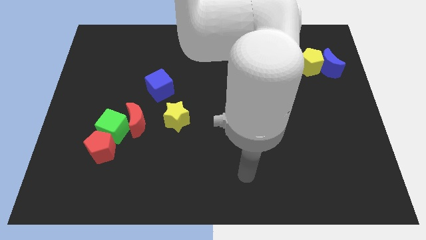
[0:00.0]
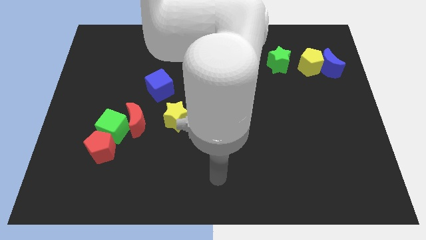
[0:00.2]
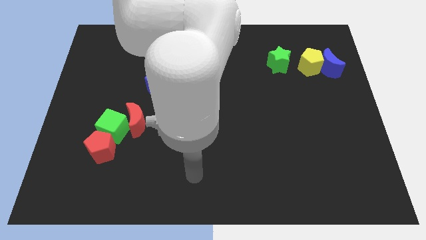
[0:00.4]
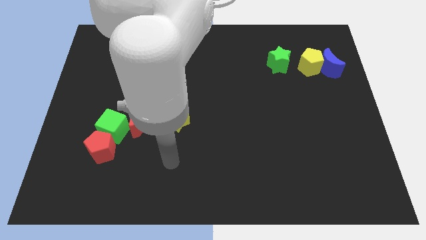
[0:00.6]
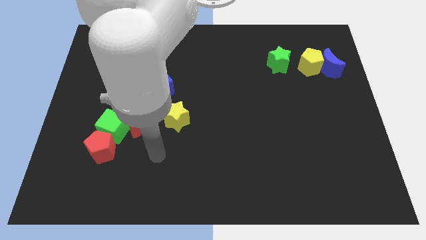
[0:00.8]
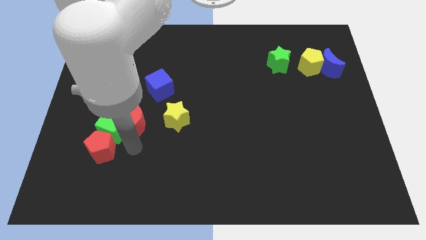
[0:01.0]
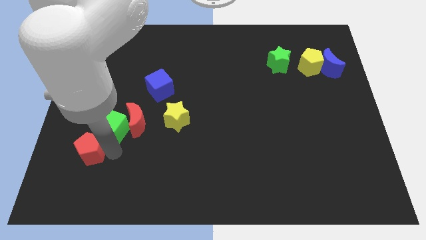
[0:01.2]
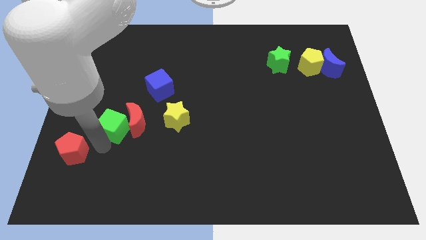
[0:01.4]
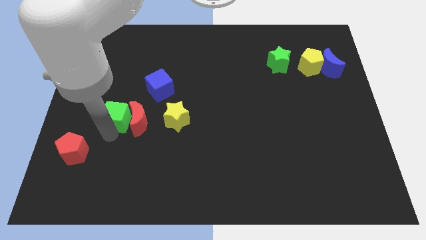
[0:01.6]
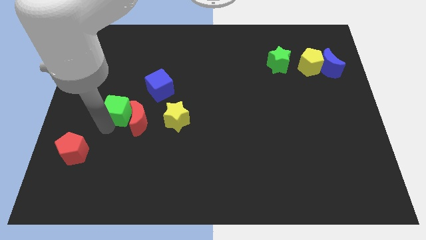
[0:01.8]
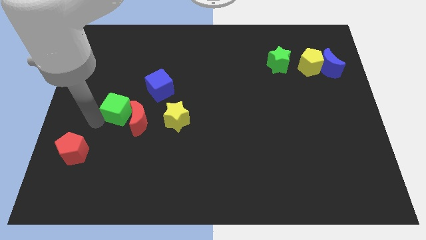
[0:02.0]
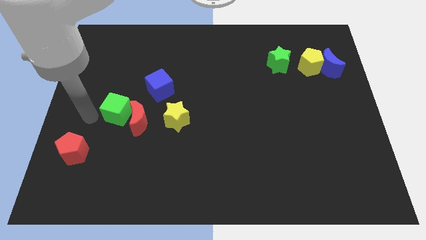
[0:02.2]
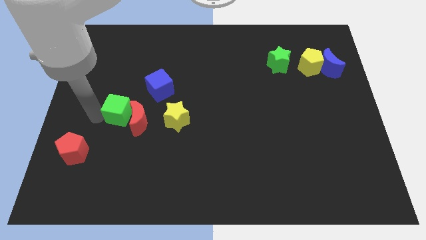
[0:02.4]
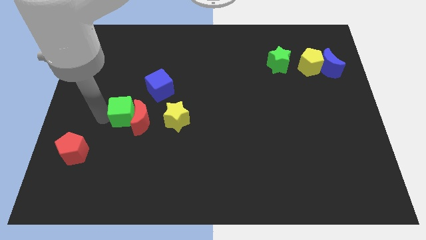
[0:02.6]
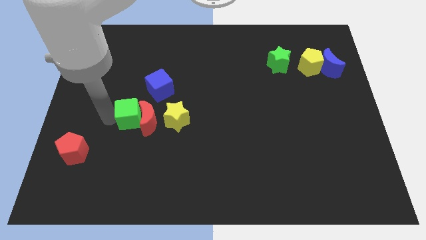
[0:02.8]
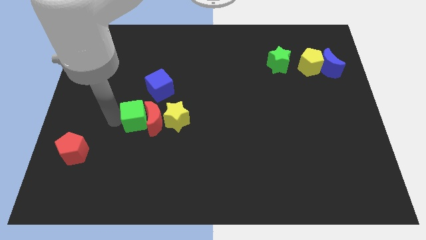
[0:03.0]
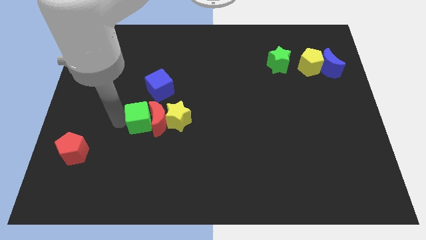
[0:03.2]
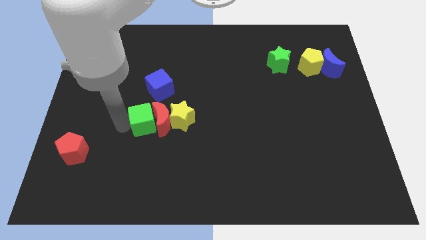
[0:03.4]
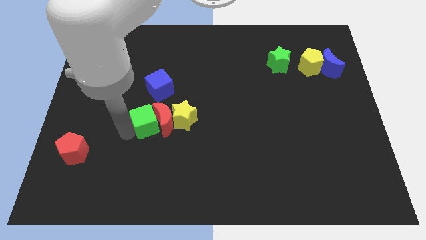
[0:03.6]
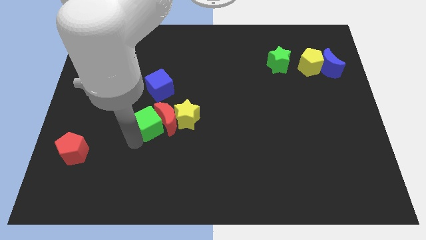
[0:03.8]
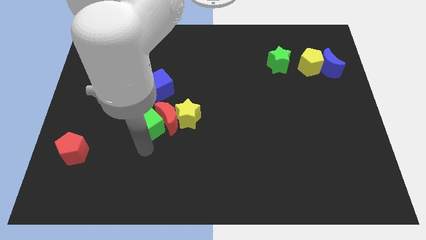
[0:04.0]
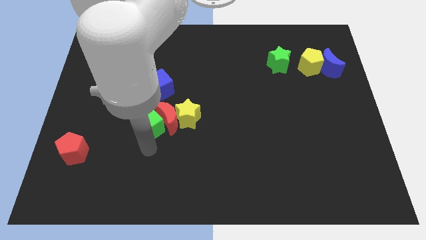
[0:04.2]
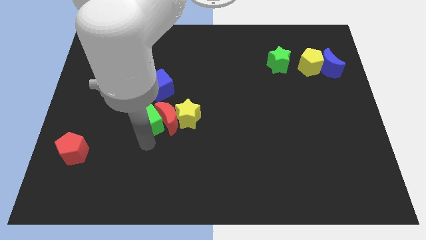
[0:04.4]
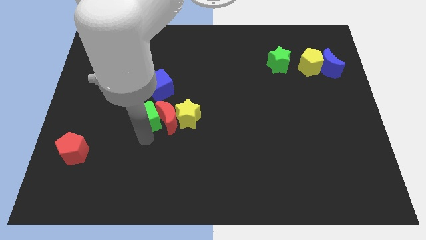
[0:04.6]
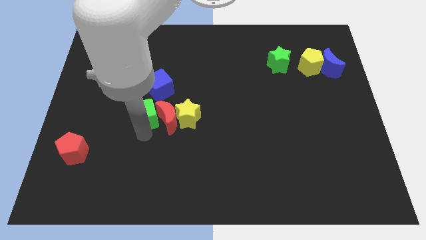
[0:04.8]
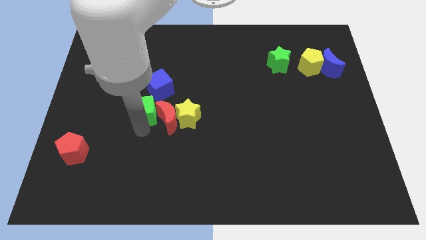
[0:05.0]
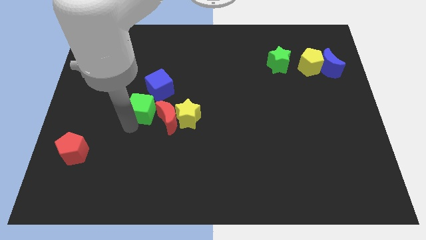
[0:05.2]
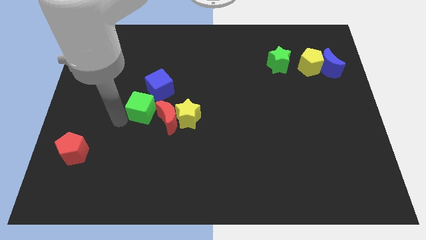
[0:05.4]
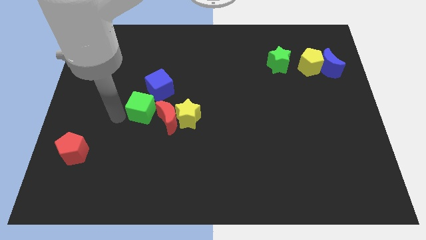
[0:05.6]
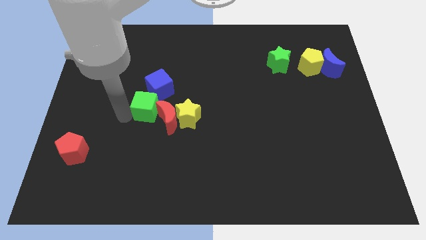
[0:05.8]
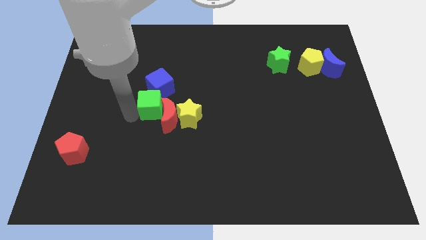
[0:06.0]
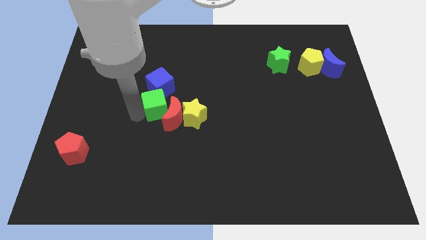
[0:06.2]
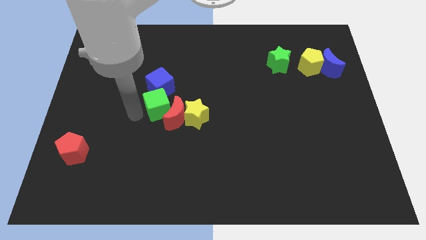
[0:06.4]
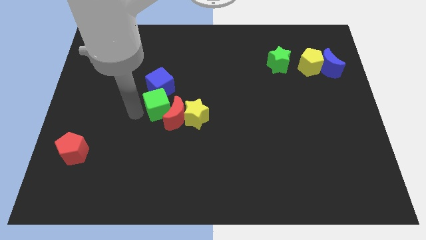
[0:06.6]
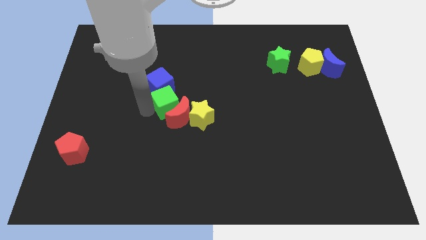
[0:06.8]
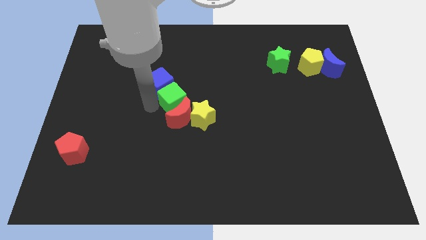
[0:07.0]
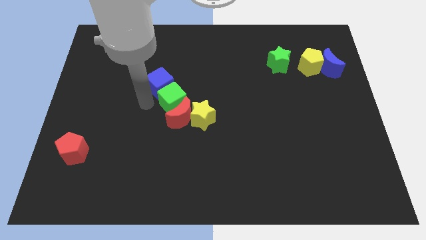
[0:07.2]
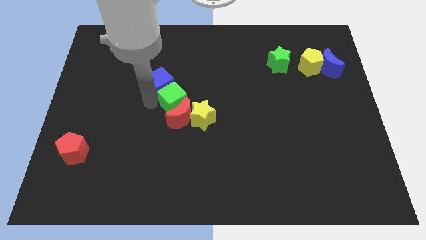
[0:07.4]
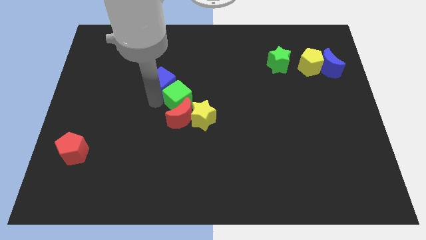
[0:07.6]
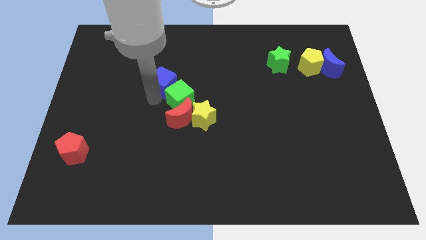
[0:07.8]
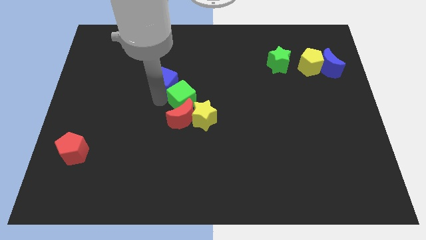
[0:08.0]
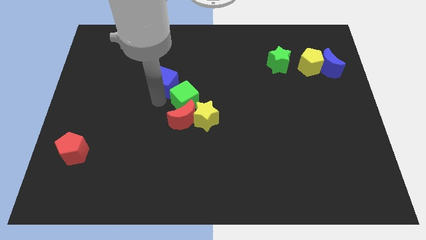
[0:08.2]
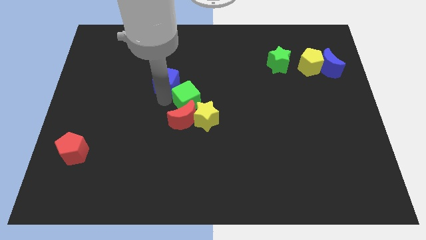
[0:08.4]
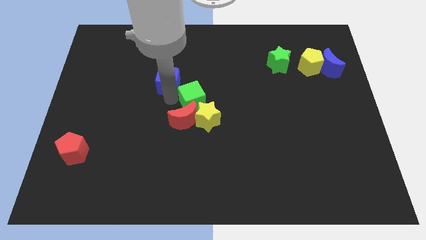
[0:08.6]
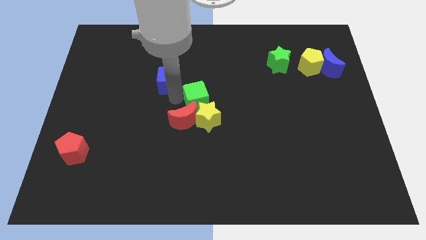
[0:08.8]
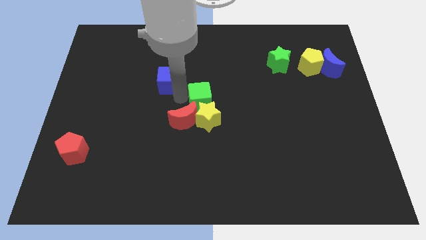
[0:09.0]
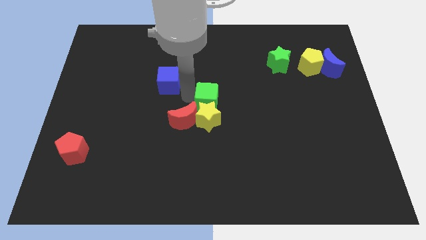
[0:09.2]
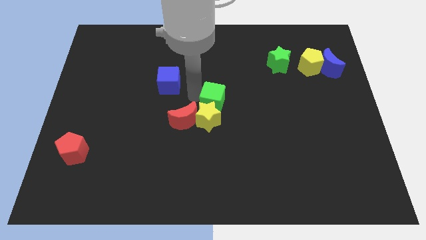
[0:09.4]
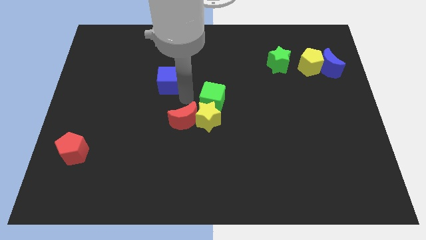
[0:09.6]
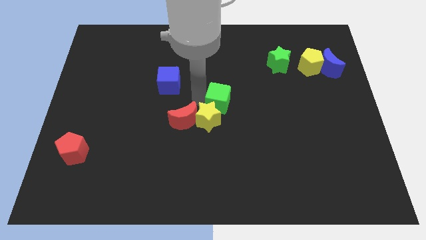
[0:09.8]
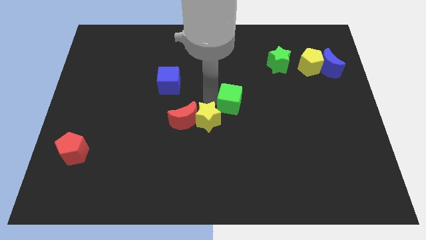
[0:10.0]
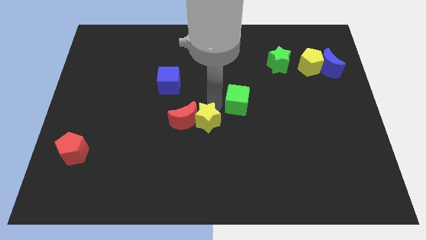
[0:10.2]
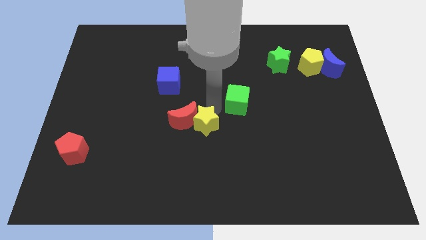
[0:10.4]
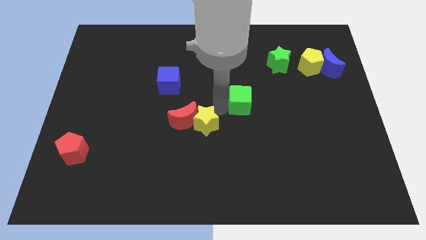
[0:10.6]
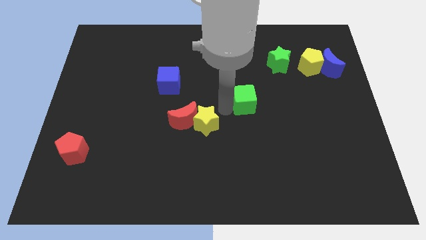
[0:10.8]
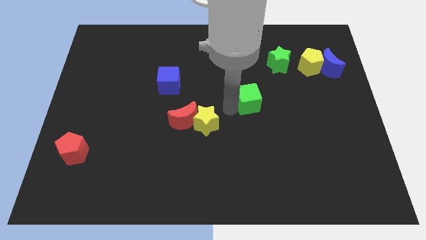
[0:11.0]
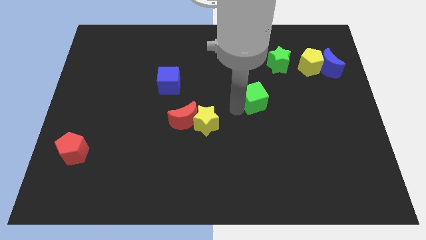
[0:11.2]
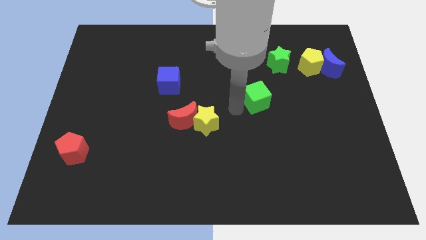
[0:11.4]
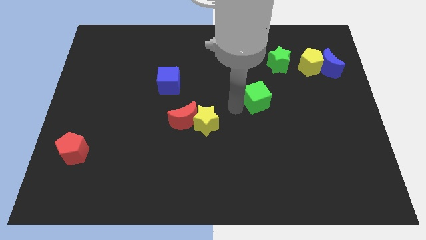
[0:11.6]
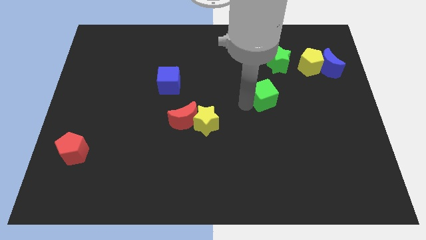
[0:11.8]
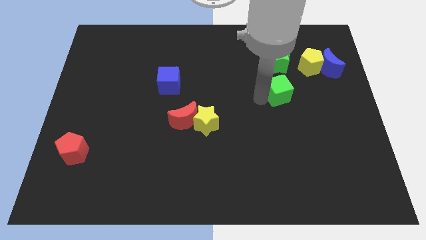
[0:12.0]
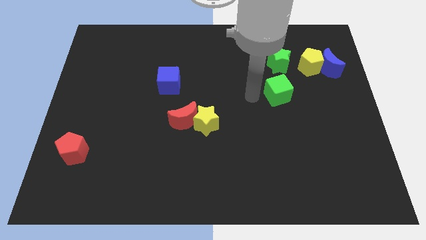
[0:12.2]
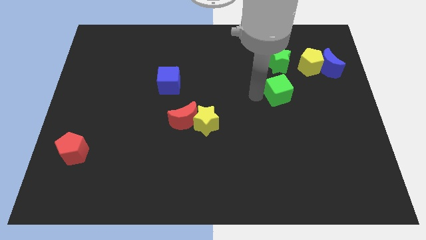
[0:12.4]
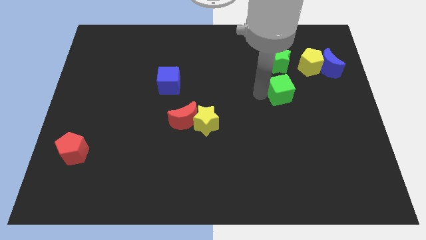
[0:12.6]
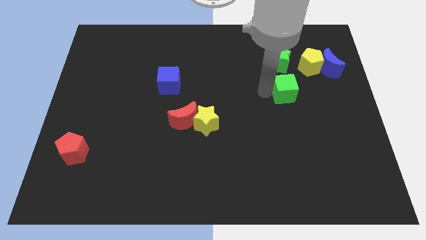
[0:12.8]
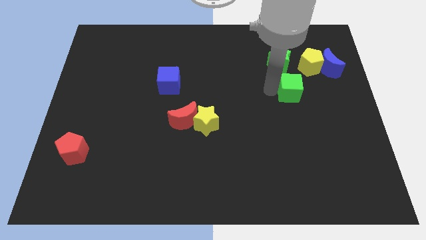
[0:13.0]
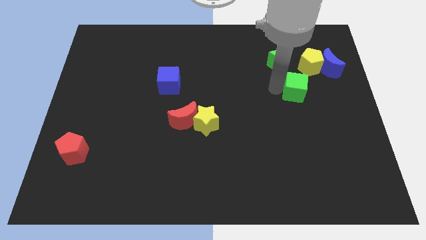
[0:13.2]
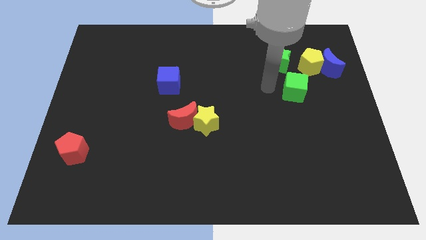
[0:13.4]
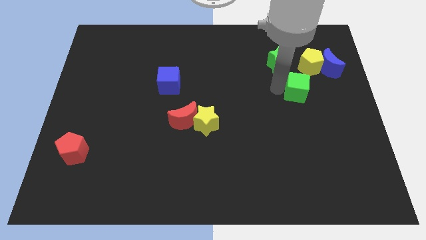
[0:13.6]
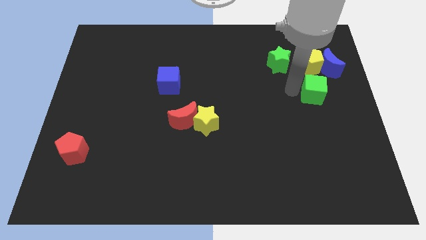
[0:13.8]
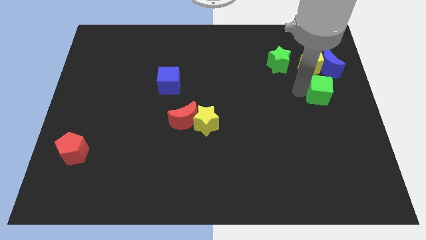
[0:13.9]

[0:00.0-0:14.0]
put the green cube to the right side
